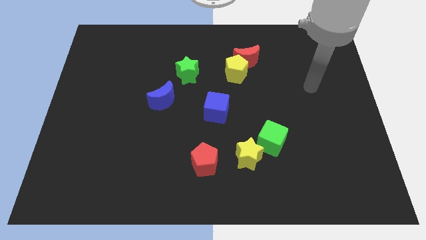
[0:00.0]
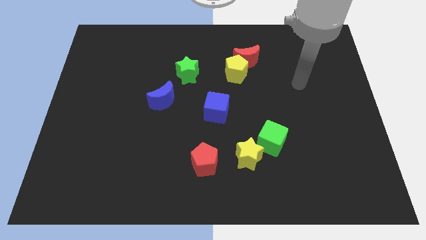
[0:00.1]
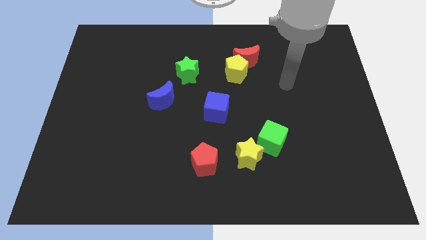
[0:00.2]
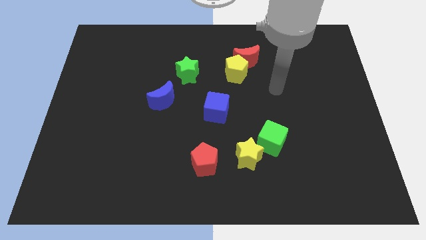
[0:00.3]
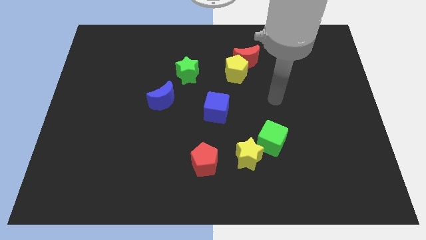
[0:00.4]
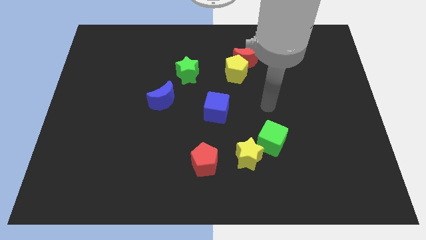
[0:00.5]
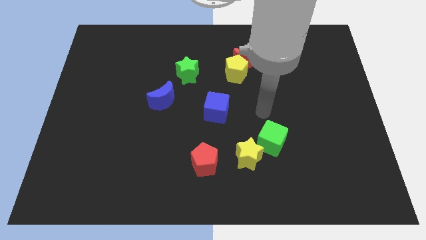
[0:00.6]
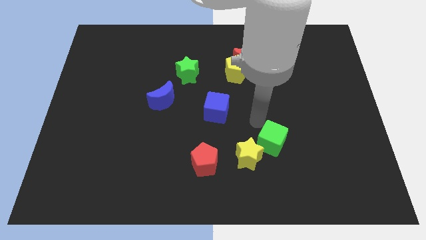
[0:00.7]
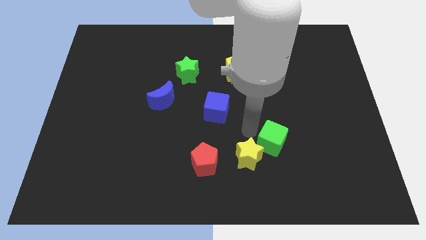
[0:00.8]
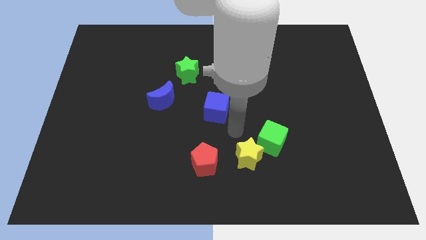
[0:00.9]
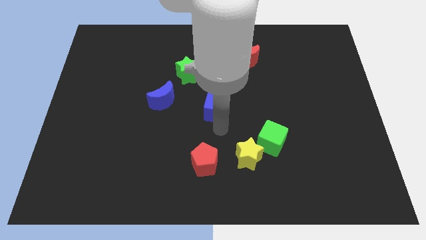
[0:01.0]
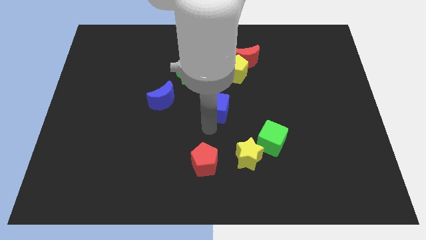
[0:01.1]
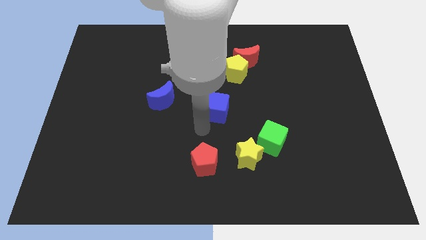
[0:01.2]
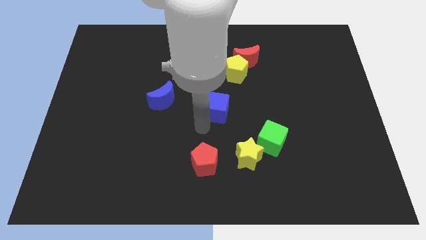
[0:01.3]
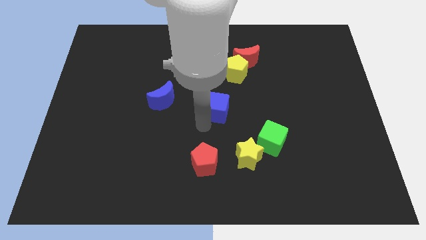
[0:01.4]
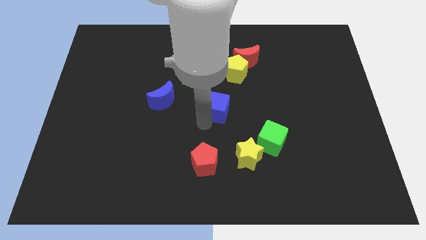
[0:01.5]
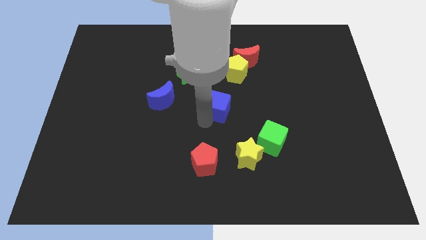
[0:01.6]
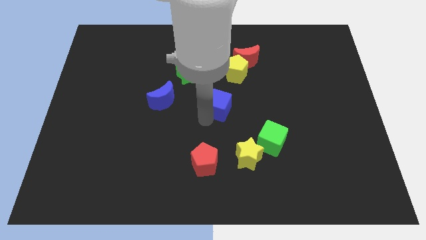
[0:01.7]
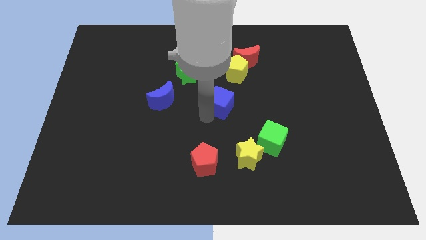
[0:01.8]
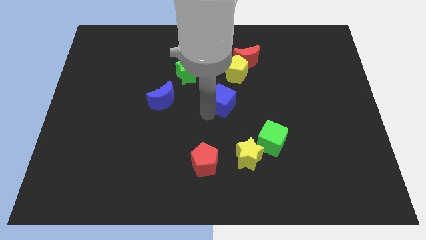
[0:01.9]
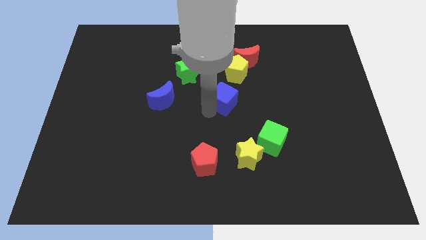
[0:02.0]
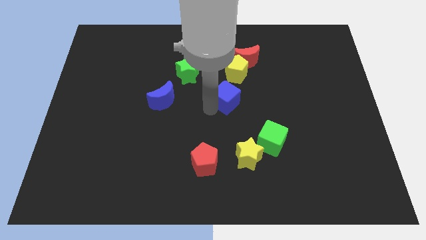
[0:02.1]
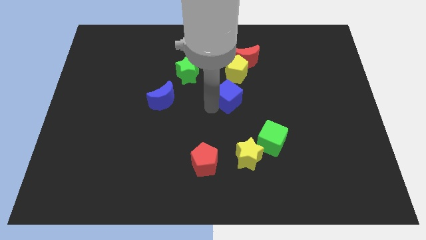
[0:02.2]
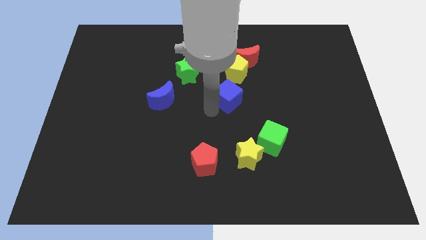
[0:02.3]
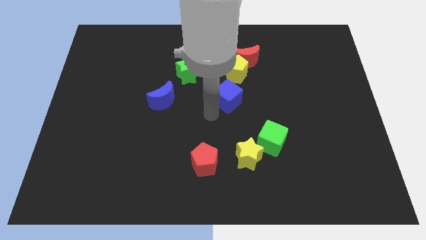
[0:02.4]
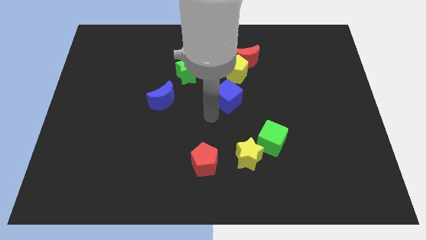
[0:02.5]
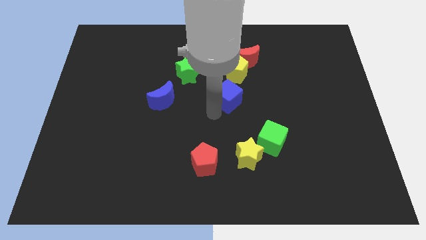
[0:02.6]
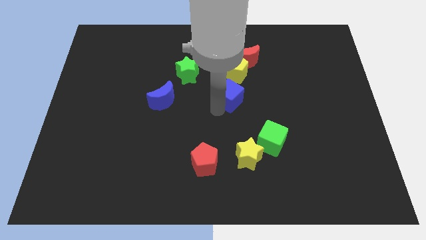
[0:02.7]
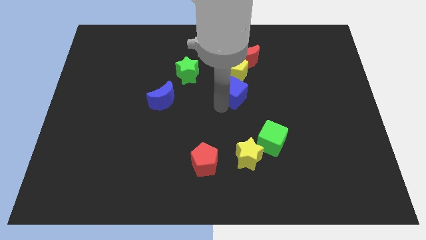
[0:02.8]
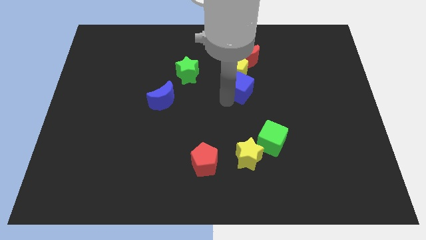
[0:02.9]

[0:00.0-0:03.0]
push the blue cube diagonally up and to the right a bit

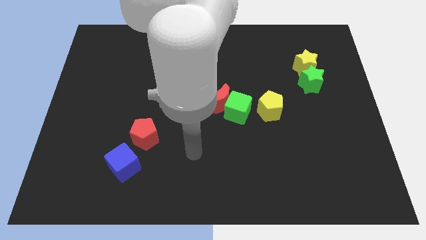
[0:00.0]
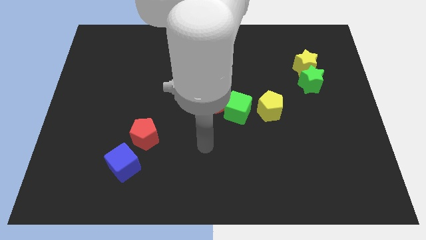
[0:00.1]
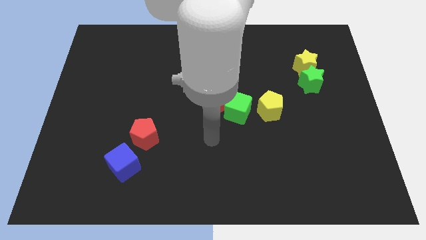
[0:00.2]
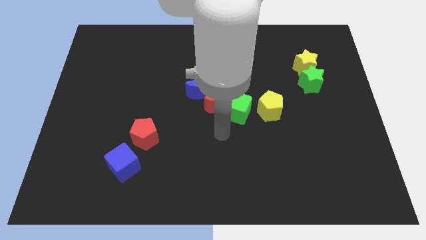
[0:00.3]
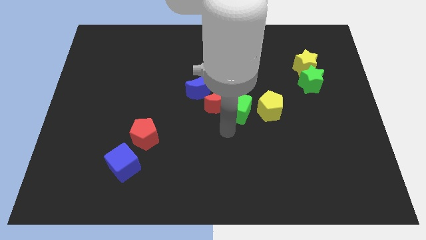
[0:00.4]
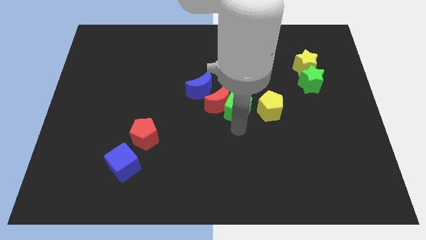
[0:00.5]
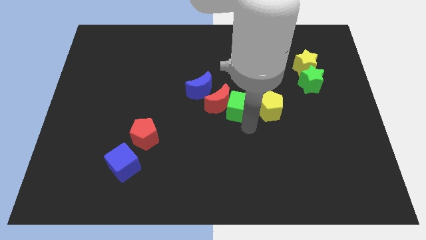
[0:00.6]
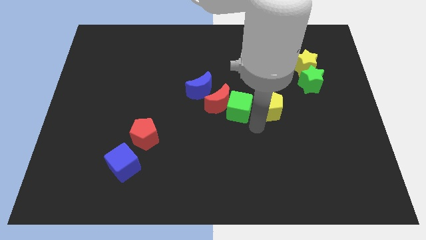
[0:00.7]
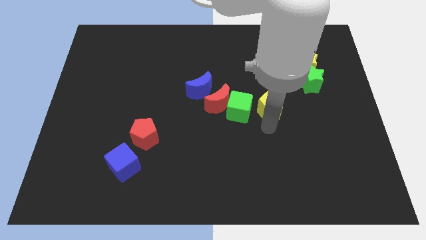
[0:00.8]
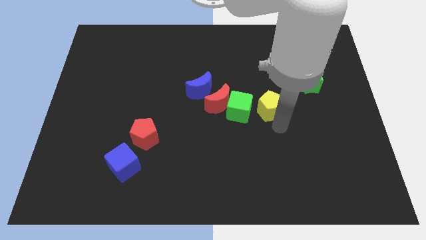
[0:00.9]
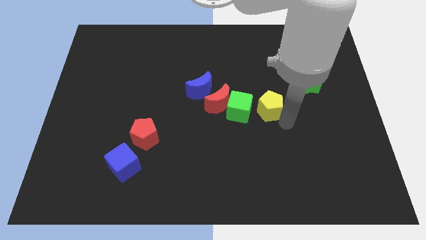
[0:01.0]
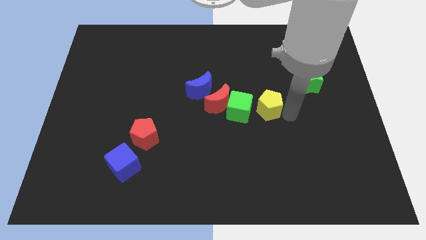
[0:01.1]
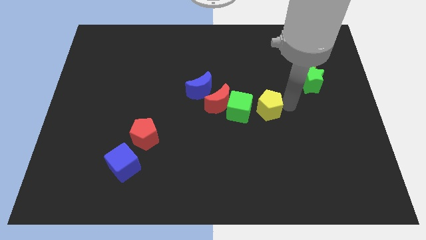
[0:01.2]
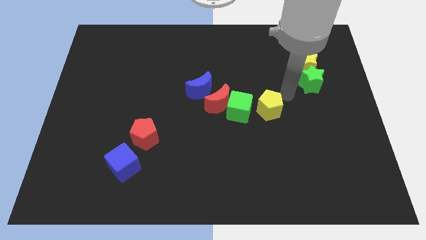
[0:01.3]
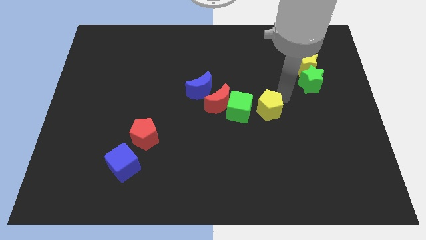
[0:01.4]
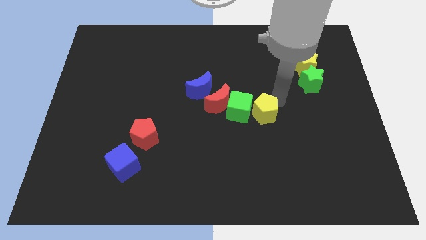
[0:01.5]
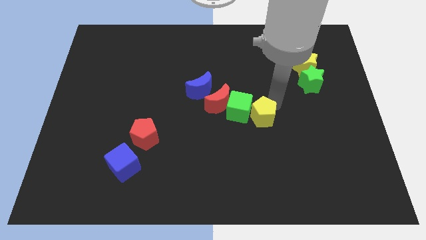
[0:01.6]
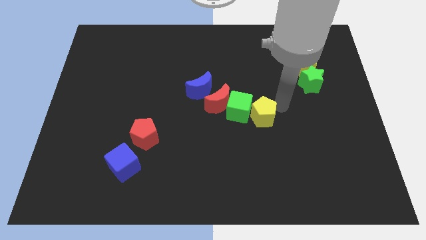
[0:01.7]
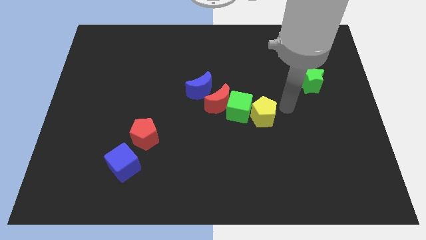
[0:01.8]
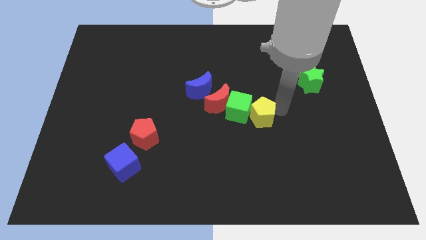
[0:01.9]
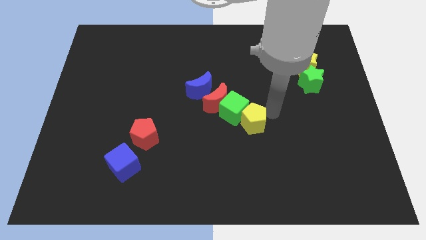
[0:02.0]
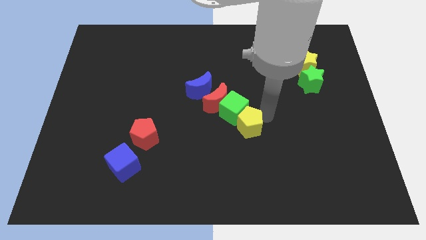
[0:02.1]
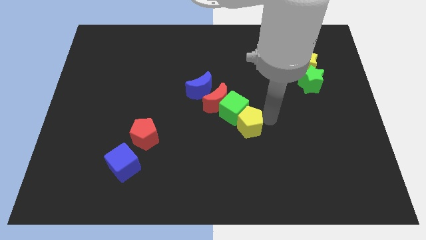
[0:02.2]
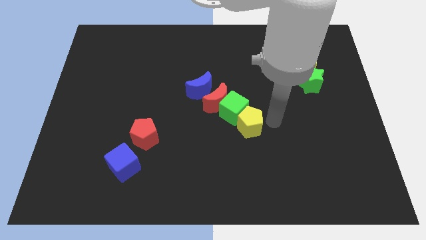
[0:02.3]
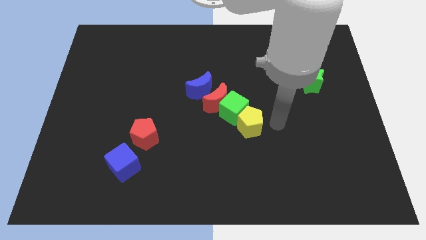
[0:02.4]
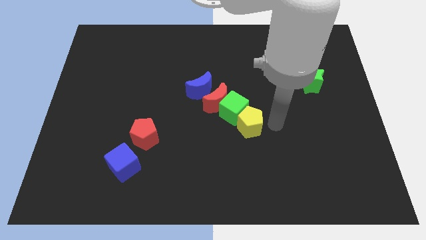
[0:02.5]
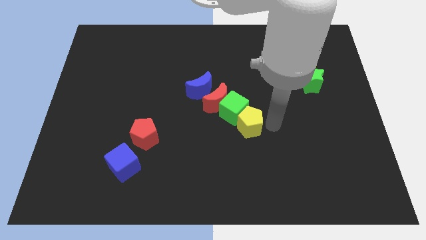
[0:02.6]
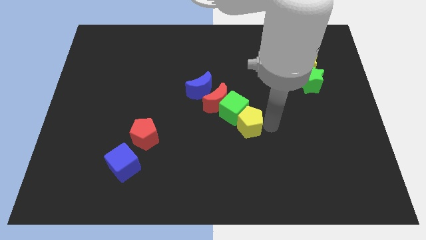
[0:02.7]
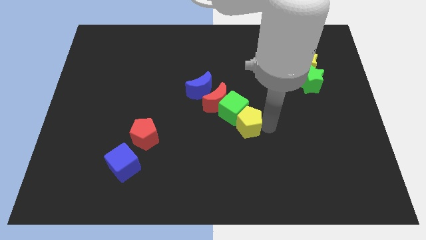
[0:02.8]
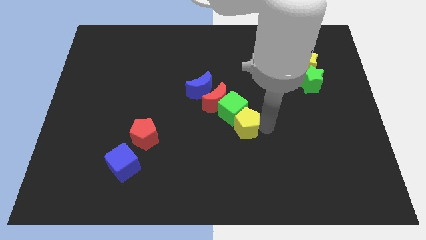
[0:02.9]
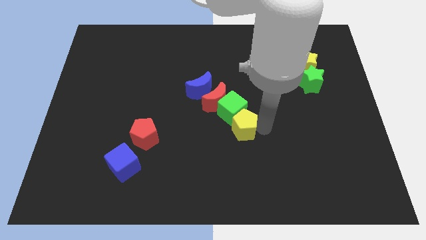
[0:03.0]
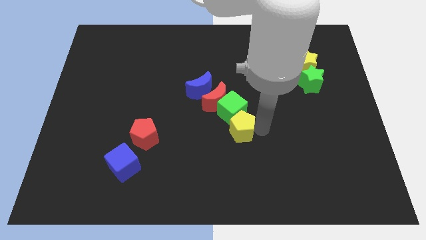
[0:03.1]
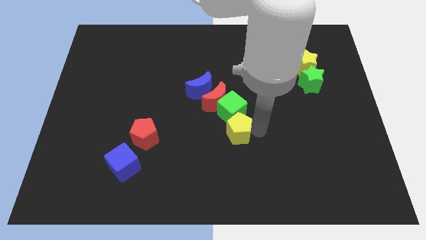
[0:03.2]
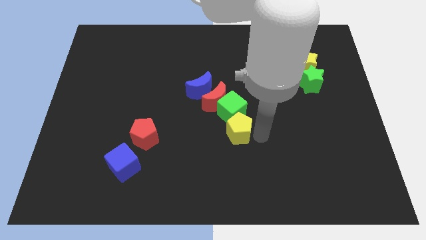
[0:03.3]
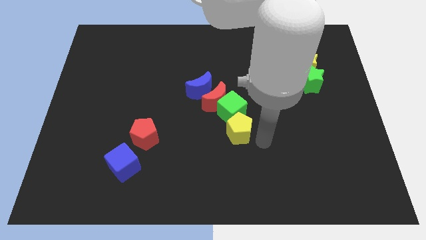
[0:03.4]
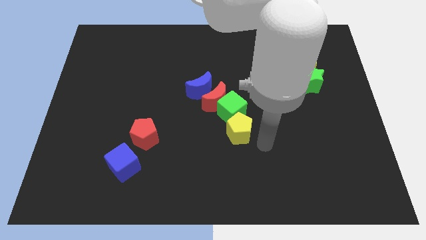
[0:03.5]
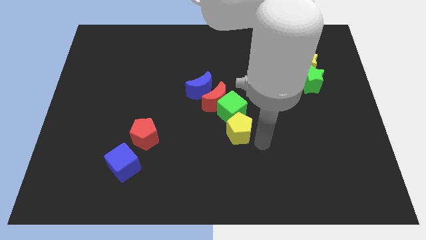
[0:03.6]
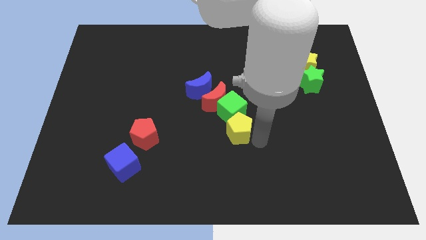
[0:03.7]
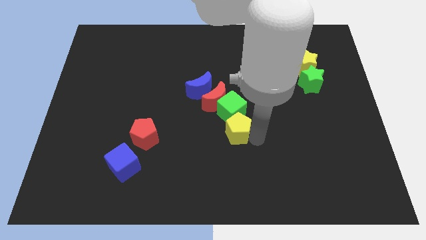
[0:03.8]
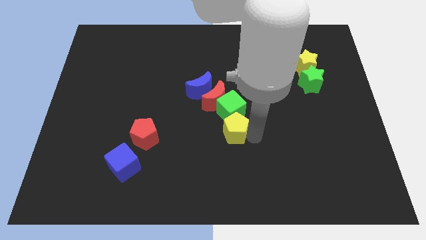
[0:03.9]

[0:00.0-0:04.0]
slide the yellow pentagon slightly to the left

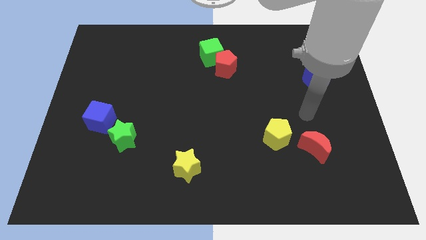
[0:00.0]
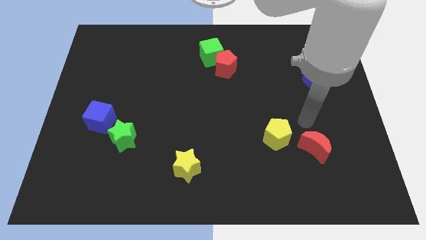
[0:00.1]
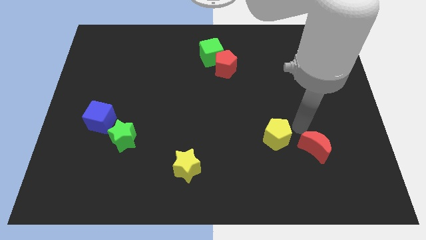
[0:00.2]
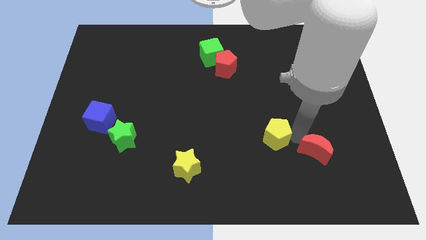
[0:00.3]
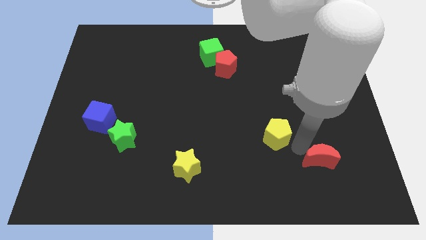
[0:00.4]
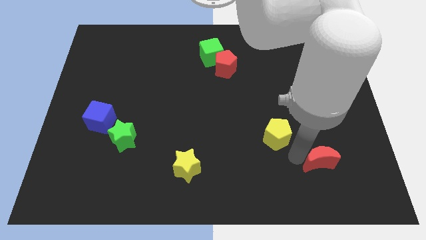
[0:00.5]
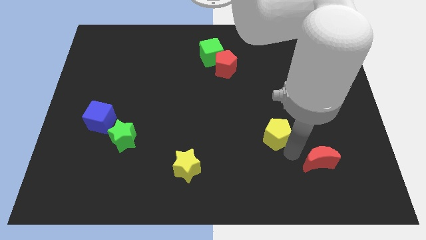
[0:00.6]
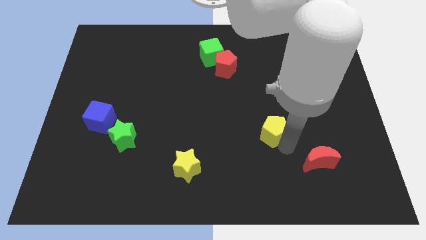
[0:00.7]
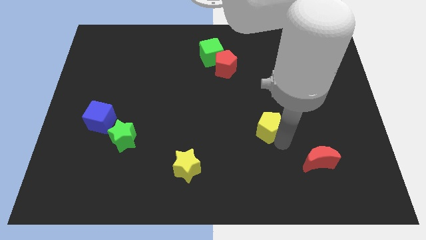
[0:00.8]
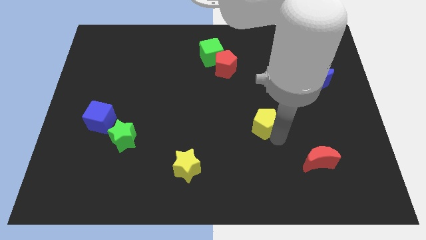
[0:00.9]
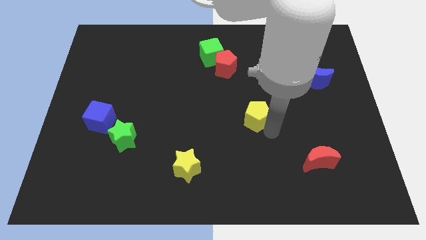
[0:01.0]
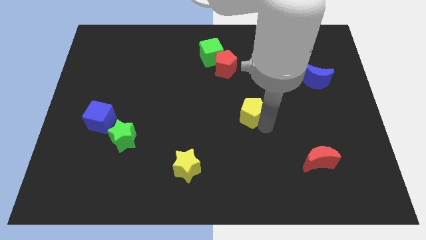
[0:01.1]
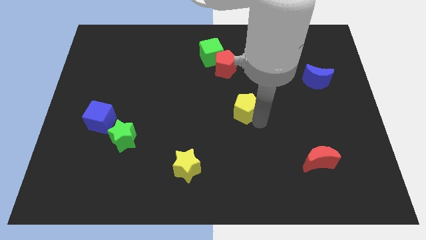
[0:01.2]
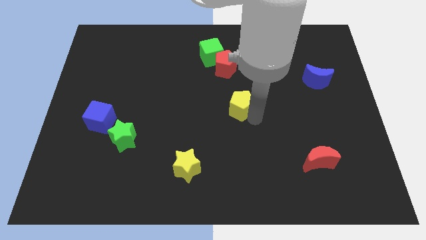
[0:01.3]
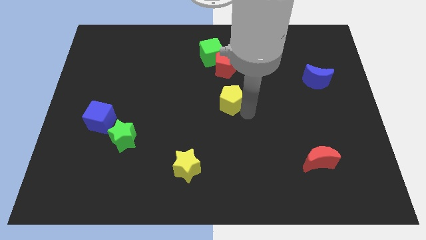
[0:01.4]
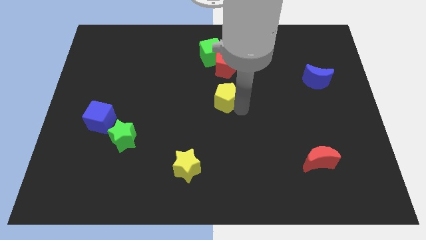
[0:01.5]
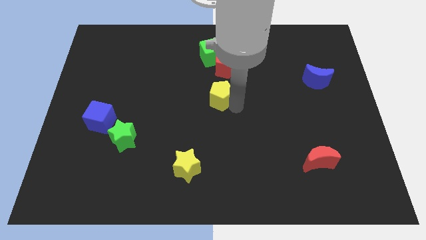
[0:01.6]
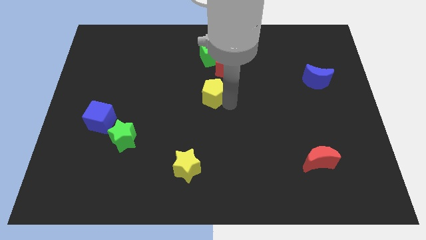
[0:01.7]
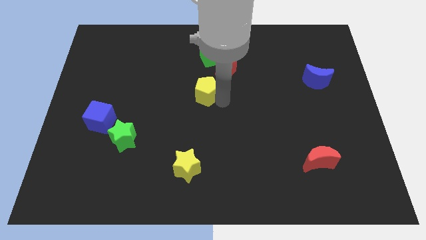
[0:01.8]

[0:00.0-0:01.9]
slide the yellow pentagon up and then to the left
